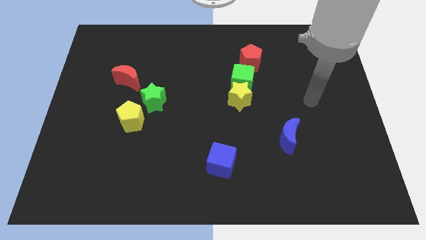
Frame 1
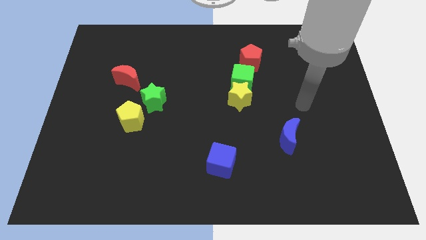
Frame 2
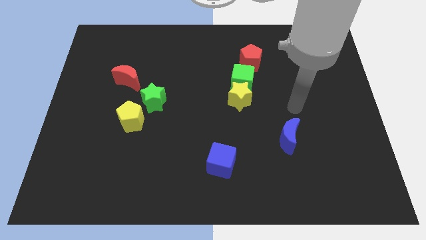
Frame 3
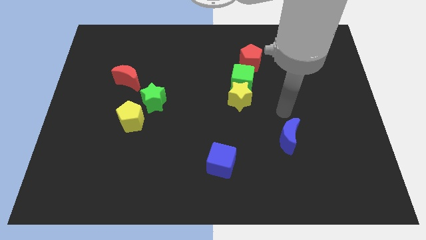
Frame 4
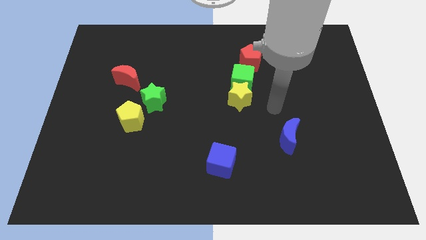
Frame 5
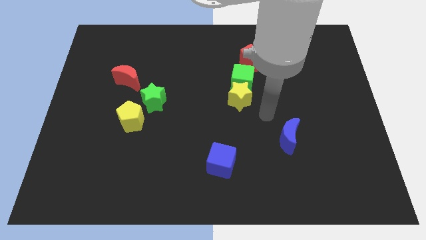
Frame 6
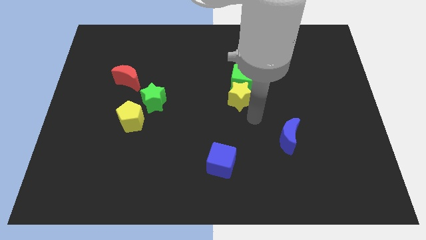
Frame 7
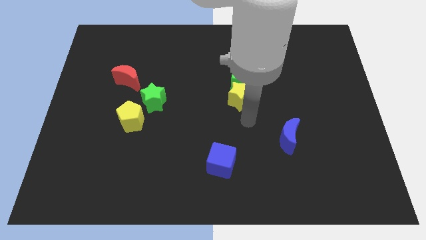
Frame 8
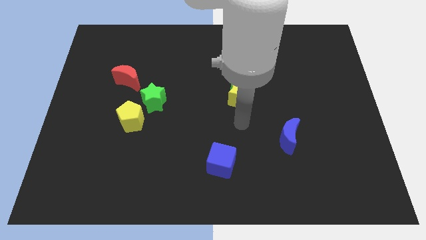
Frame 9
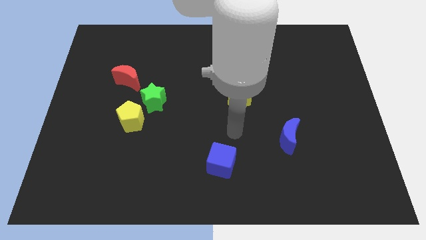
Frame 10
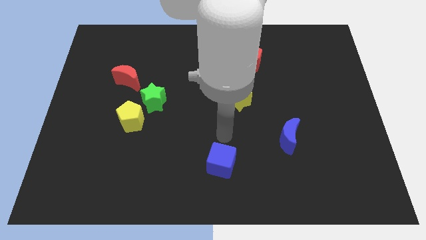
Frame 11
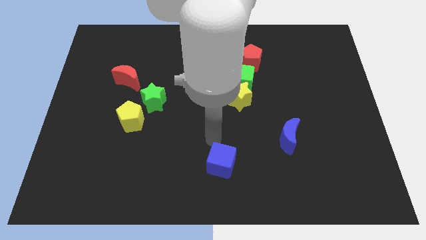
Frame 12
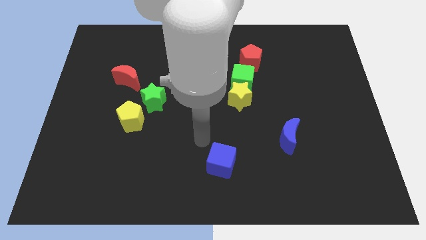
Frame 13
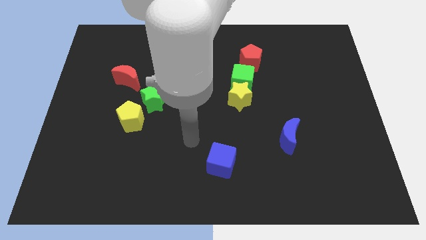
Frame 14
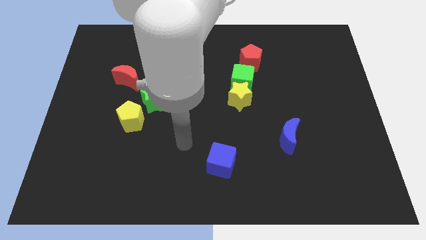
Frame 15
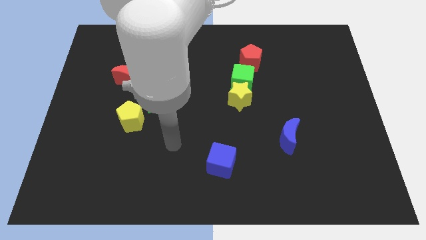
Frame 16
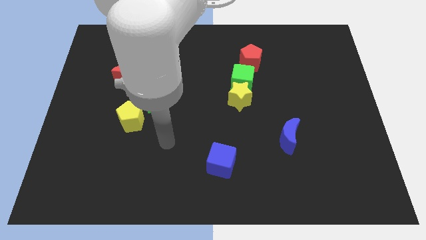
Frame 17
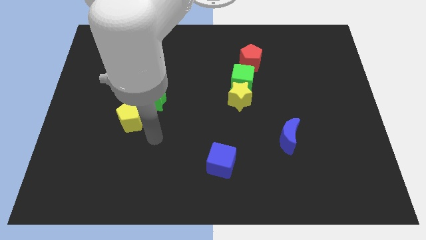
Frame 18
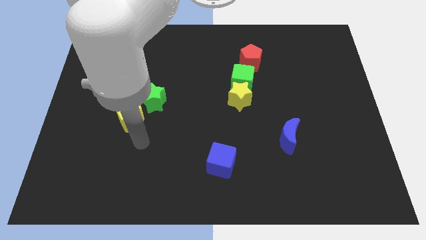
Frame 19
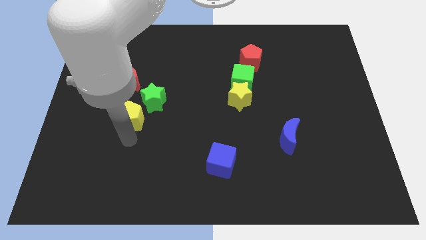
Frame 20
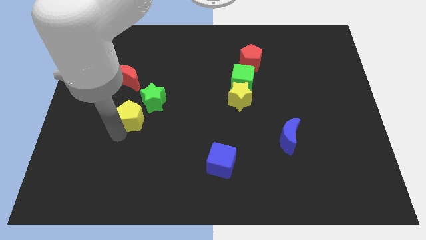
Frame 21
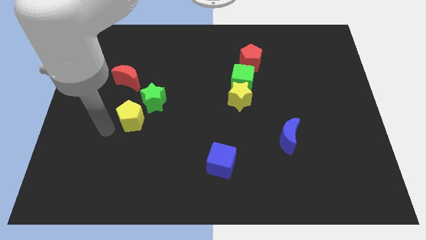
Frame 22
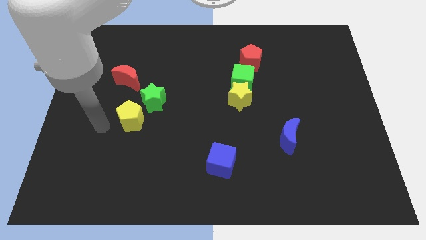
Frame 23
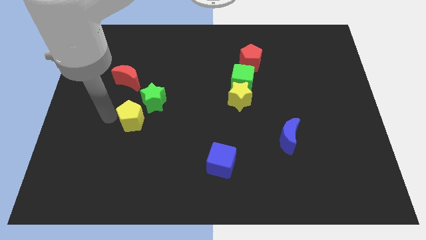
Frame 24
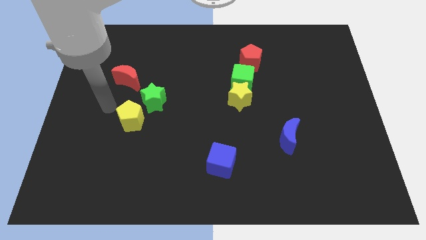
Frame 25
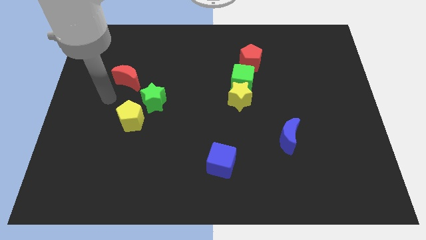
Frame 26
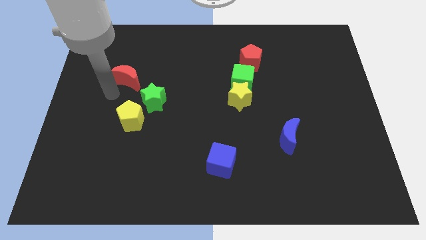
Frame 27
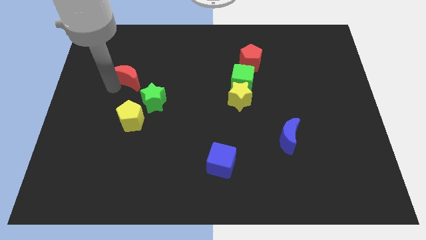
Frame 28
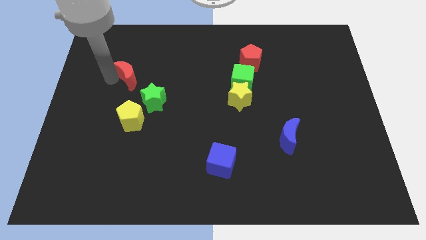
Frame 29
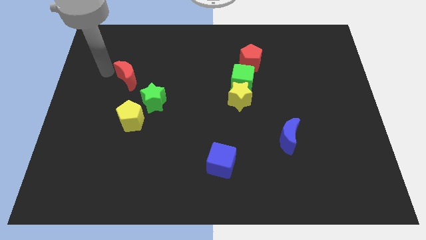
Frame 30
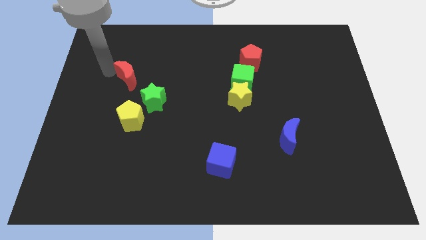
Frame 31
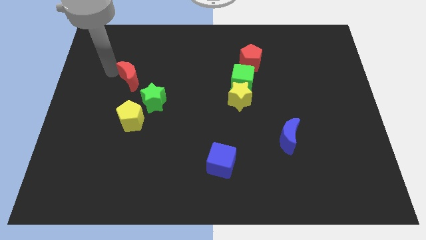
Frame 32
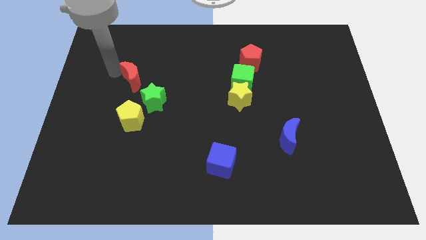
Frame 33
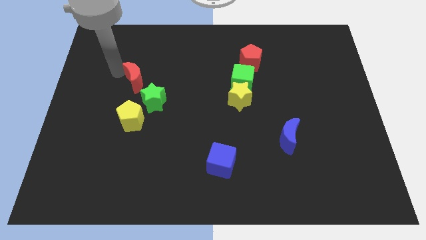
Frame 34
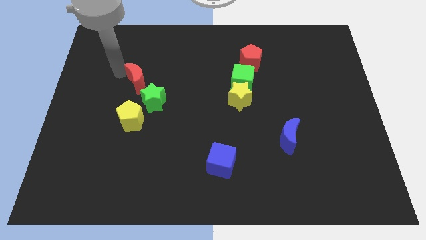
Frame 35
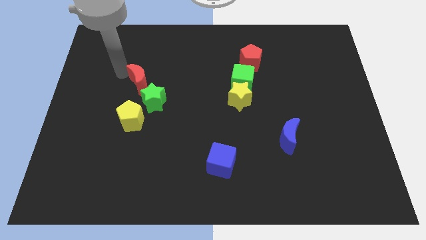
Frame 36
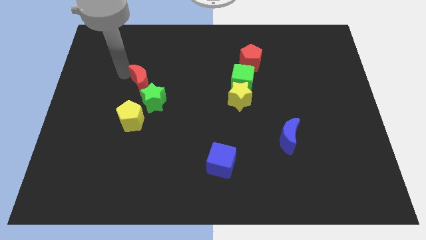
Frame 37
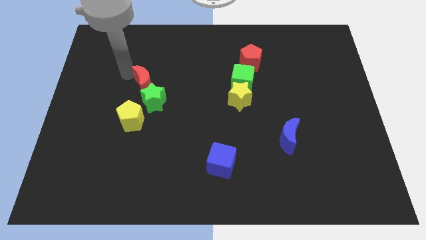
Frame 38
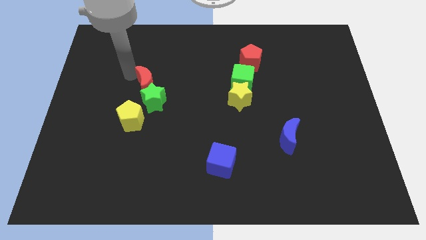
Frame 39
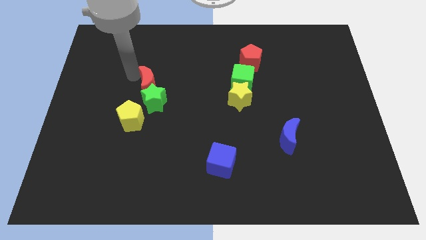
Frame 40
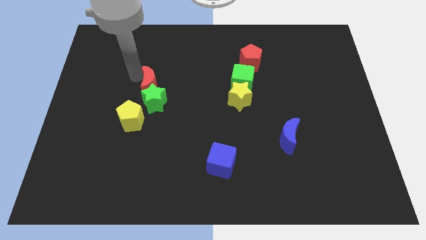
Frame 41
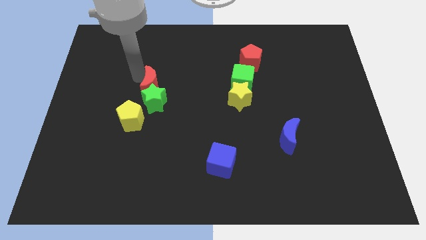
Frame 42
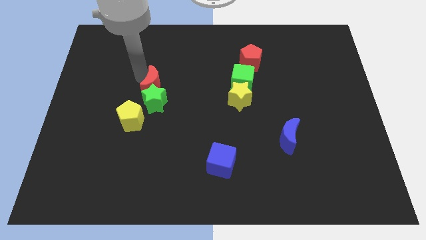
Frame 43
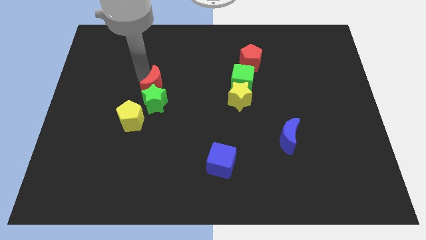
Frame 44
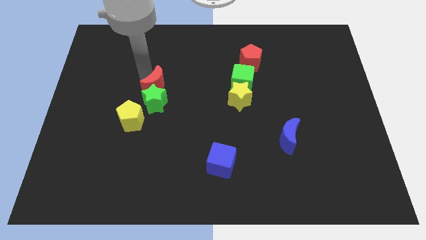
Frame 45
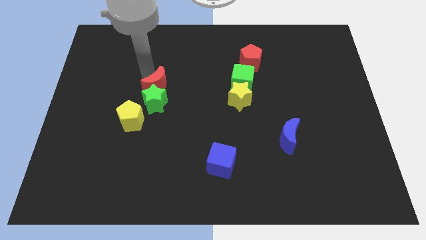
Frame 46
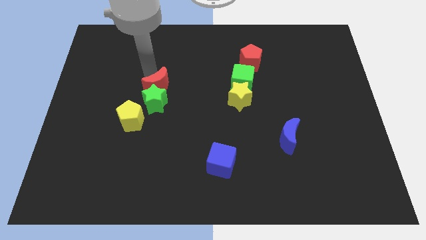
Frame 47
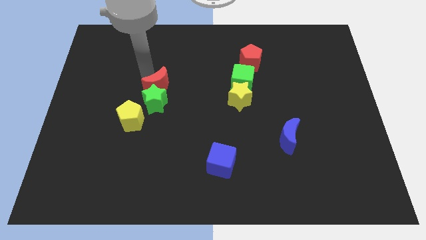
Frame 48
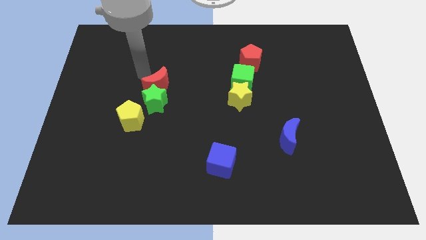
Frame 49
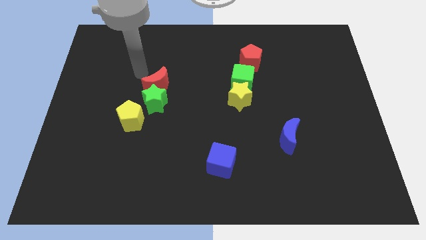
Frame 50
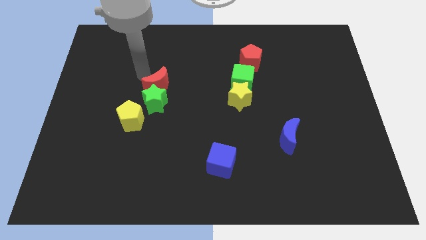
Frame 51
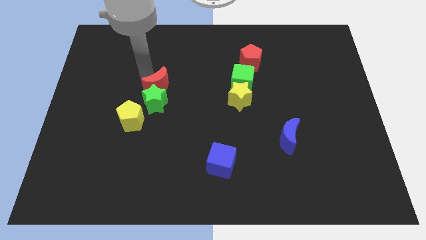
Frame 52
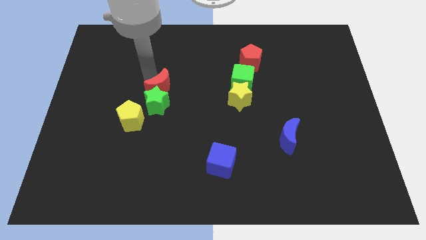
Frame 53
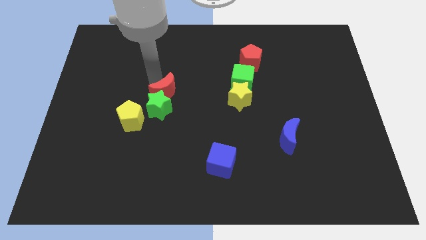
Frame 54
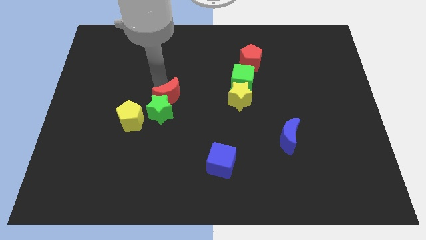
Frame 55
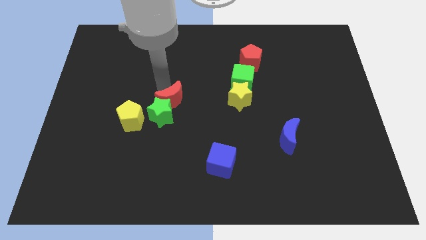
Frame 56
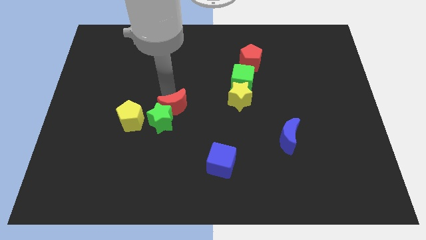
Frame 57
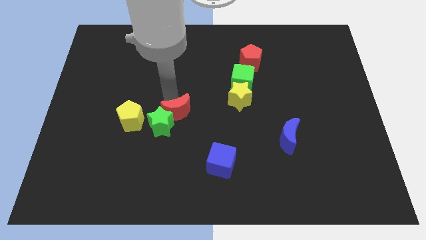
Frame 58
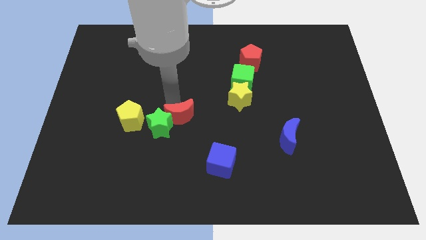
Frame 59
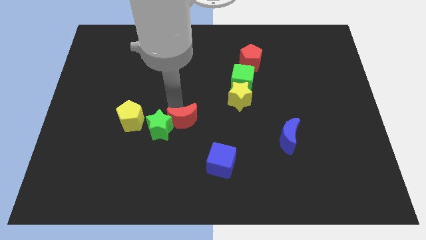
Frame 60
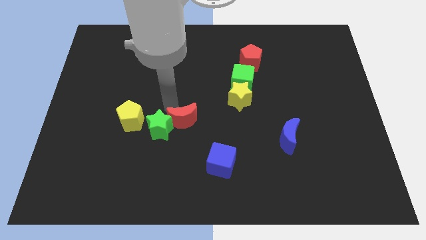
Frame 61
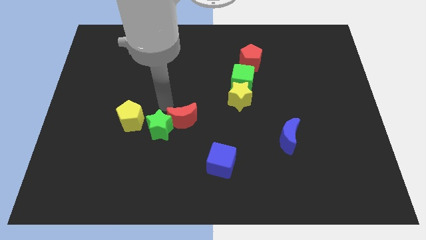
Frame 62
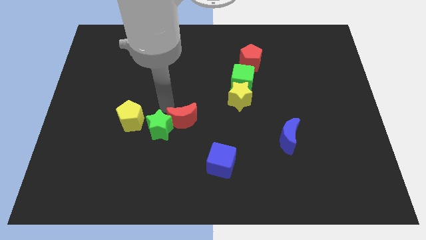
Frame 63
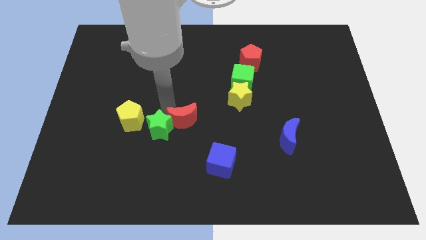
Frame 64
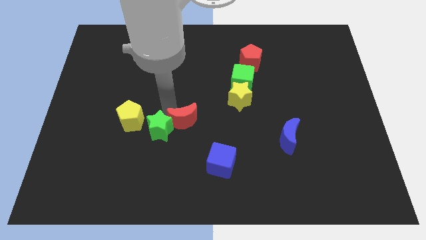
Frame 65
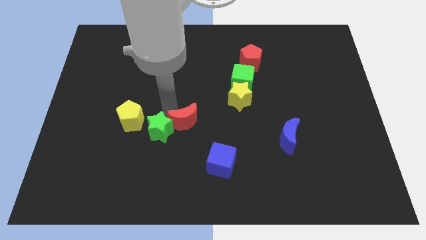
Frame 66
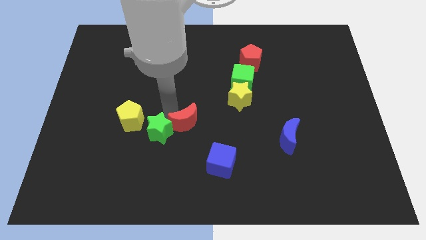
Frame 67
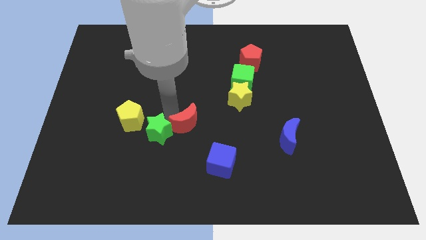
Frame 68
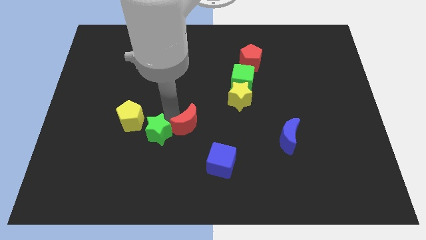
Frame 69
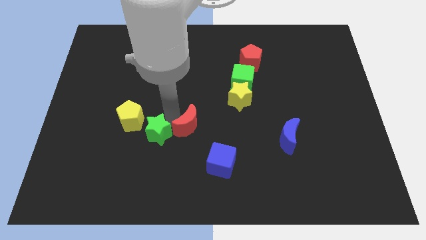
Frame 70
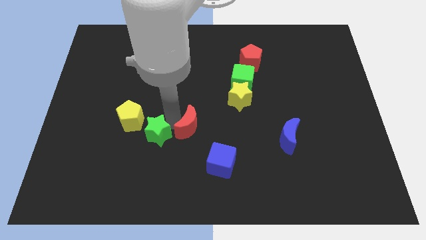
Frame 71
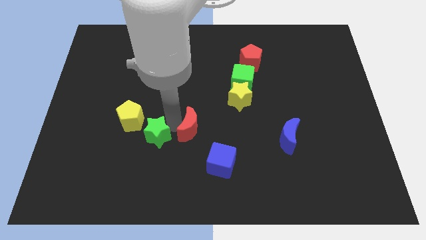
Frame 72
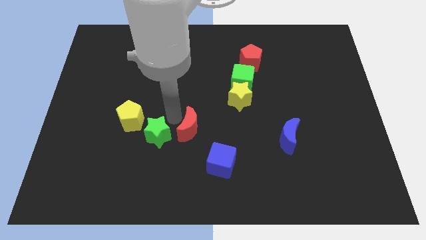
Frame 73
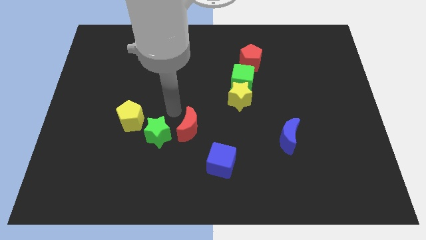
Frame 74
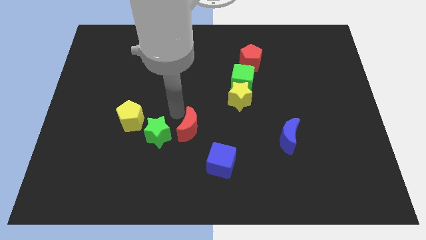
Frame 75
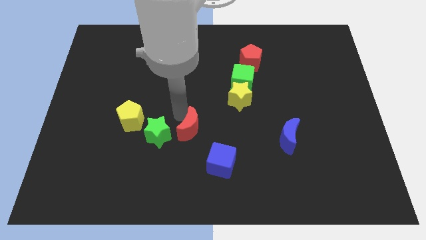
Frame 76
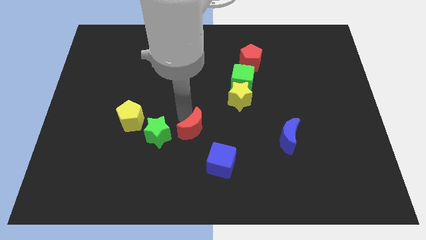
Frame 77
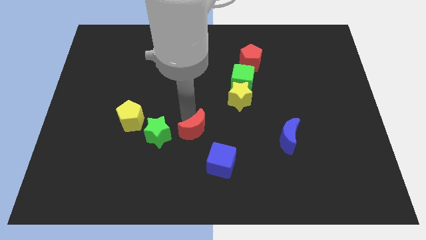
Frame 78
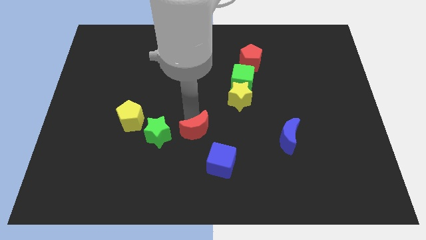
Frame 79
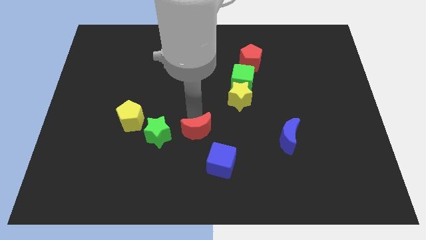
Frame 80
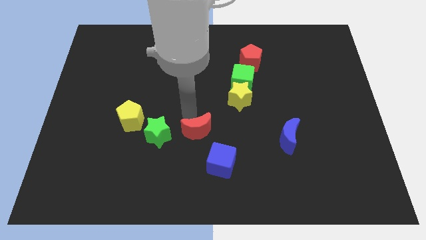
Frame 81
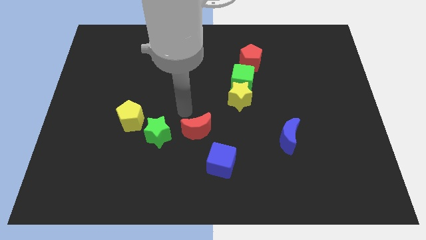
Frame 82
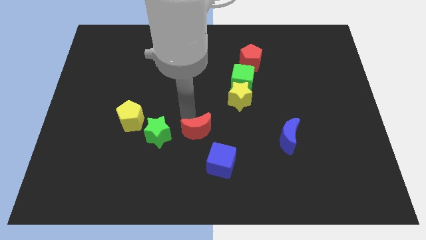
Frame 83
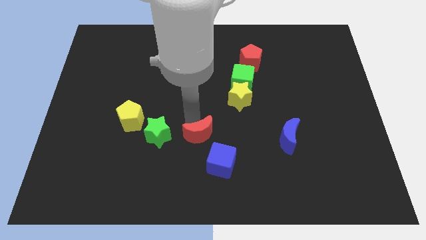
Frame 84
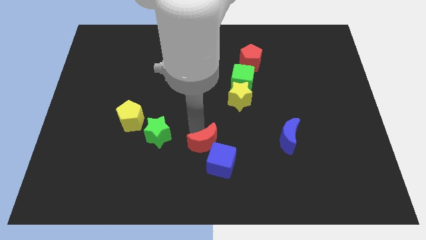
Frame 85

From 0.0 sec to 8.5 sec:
slide the red moon close to the blue cube
